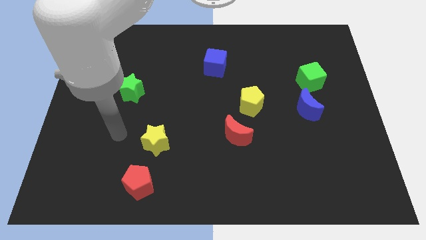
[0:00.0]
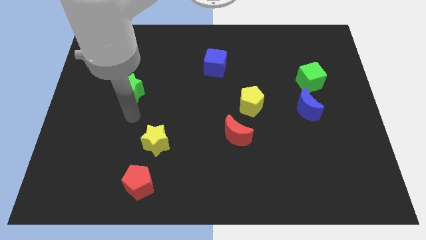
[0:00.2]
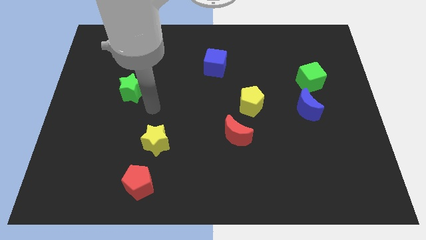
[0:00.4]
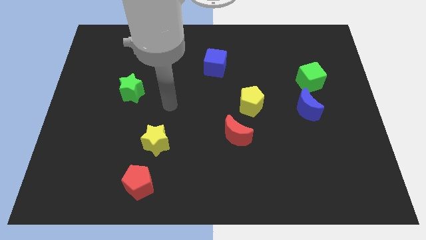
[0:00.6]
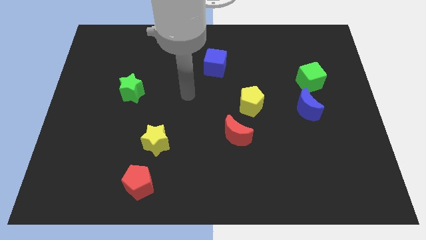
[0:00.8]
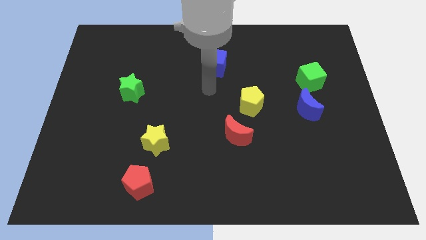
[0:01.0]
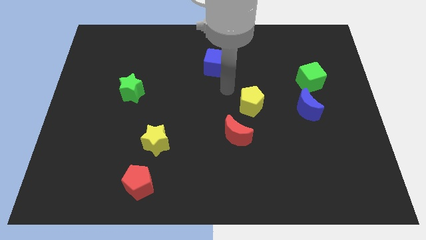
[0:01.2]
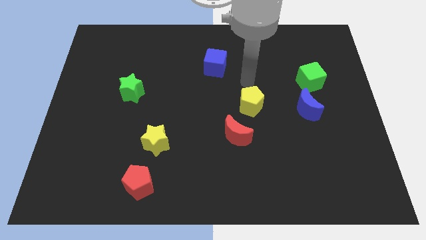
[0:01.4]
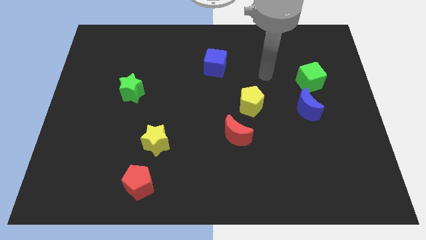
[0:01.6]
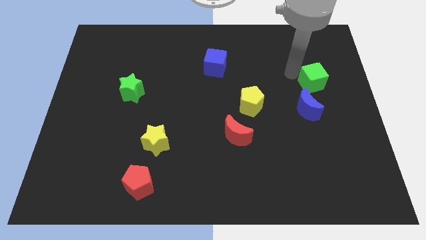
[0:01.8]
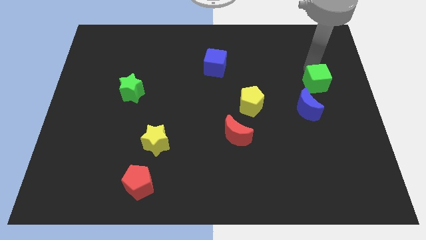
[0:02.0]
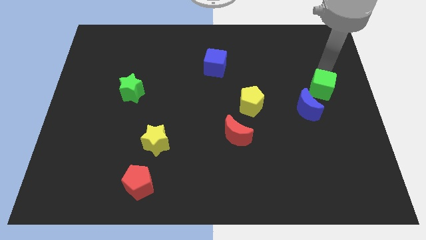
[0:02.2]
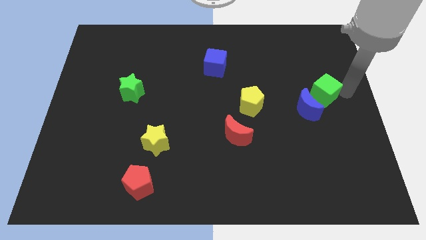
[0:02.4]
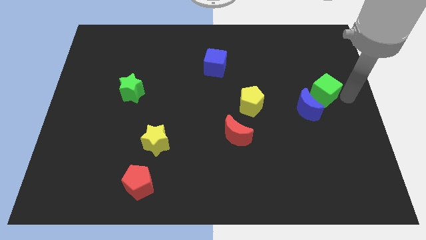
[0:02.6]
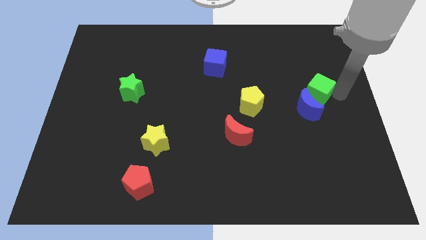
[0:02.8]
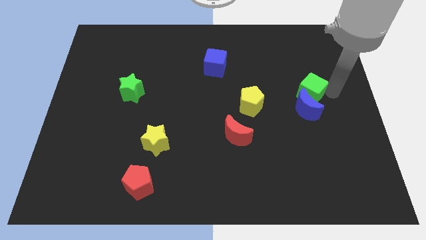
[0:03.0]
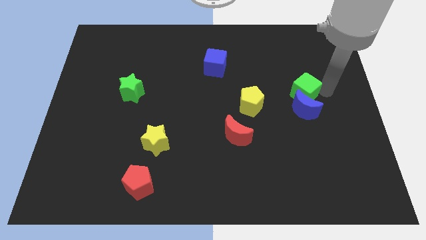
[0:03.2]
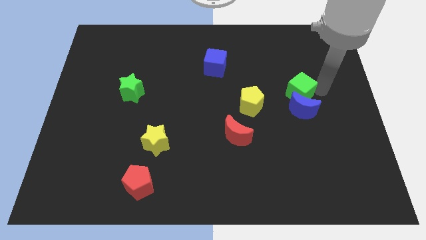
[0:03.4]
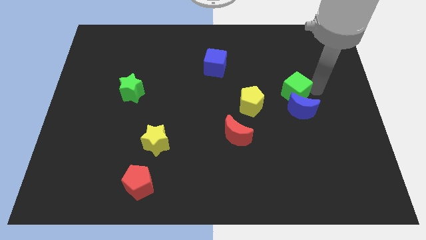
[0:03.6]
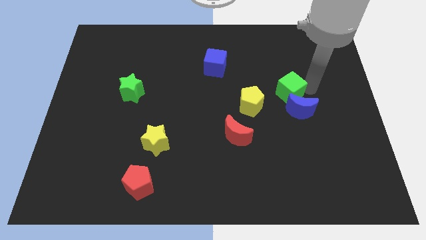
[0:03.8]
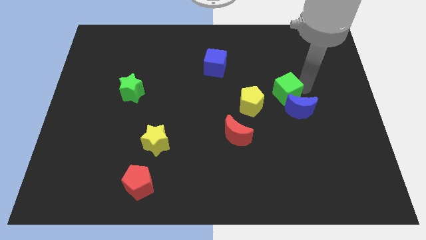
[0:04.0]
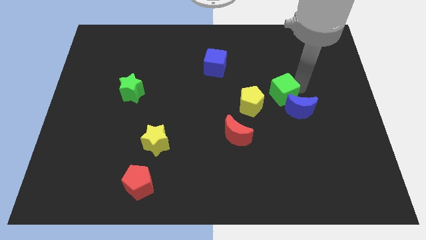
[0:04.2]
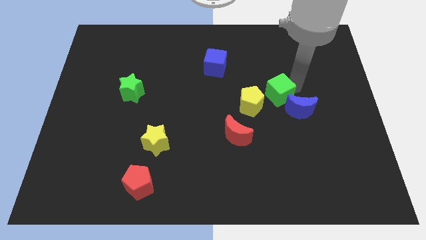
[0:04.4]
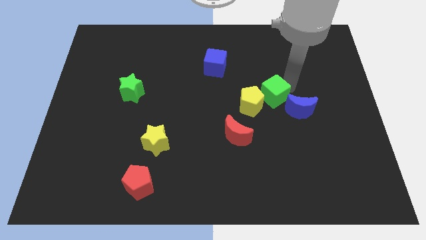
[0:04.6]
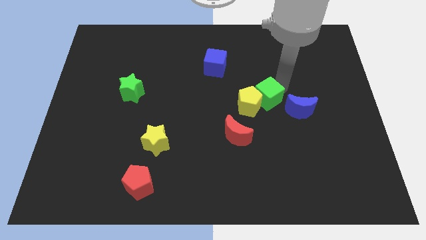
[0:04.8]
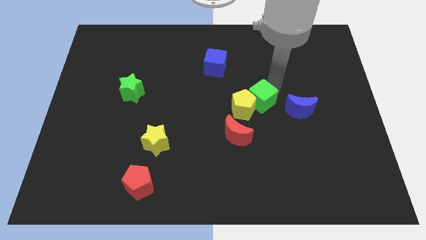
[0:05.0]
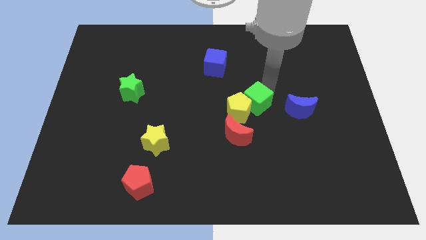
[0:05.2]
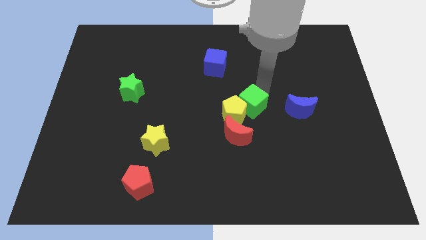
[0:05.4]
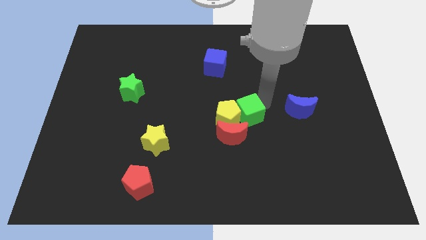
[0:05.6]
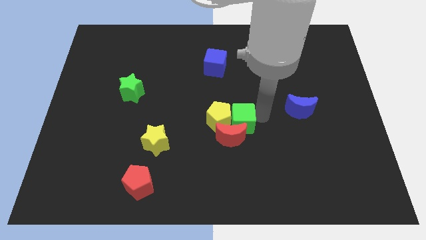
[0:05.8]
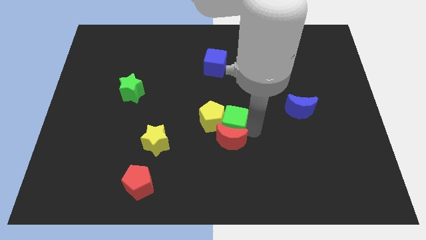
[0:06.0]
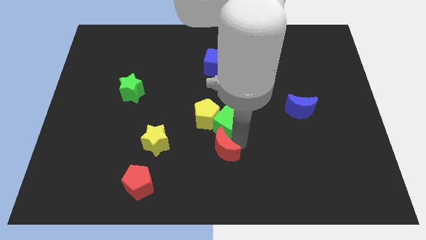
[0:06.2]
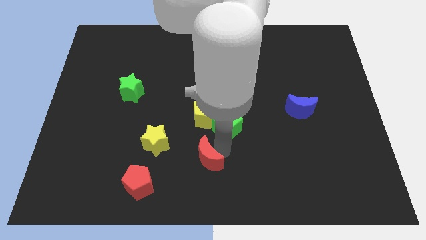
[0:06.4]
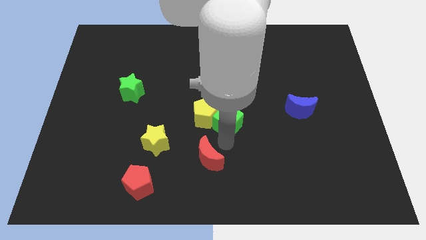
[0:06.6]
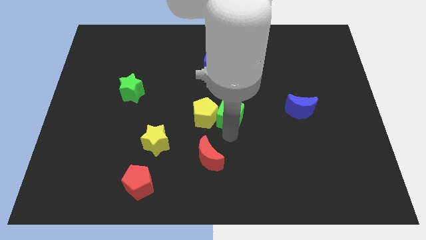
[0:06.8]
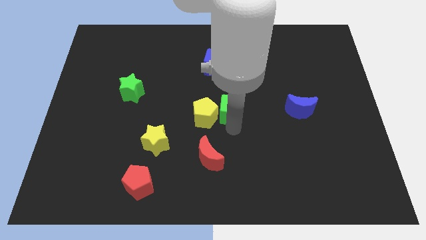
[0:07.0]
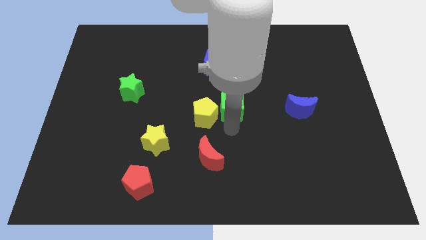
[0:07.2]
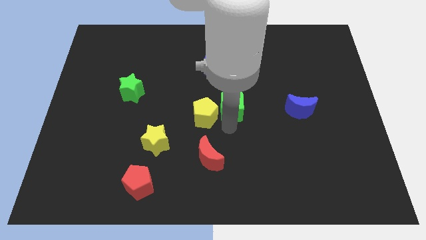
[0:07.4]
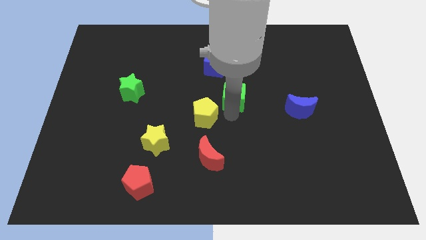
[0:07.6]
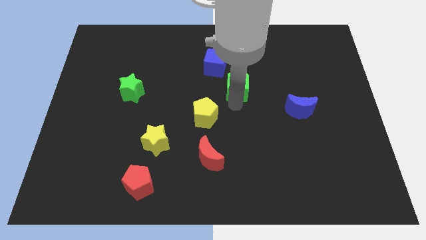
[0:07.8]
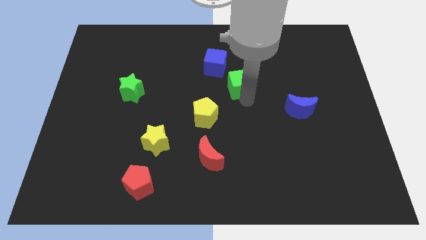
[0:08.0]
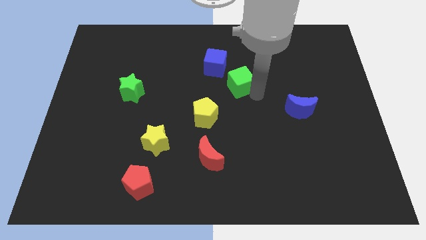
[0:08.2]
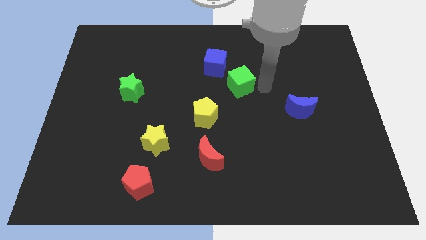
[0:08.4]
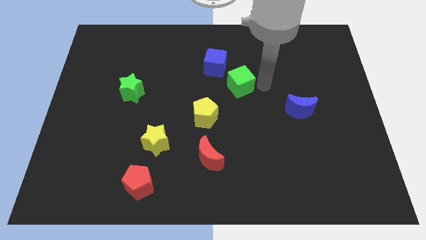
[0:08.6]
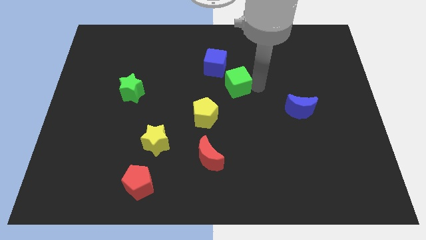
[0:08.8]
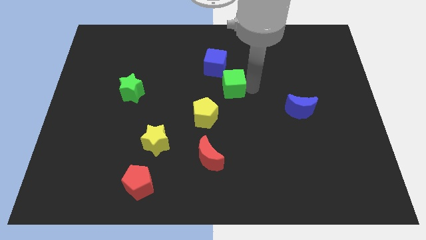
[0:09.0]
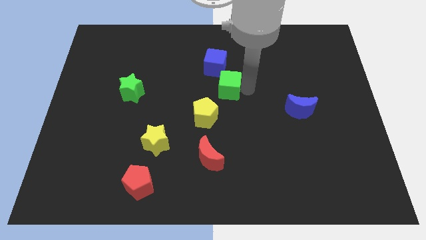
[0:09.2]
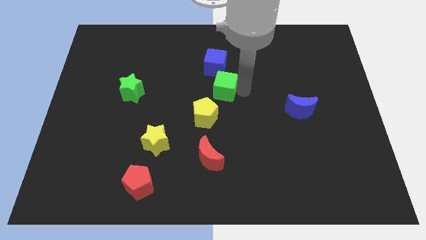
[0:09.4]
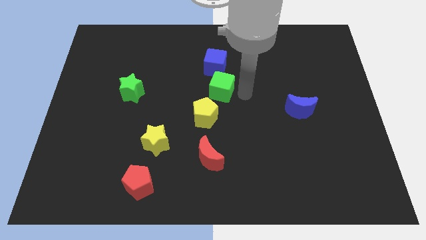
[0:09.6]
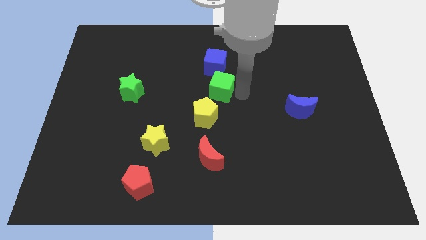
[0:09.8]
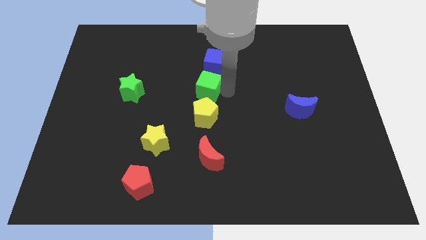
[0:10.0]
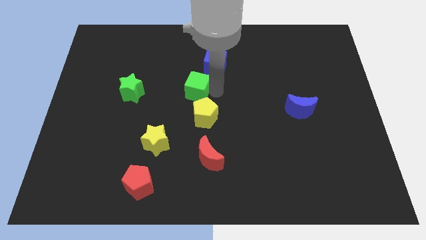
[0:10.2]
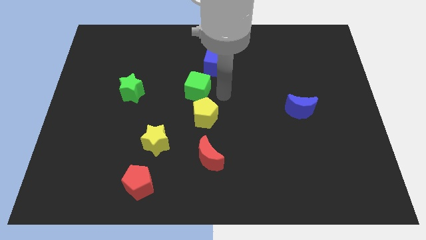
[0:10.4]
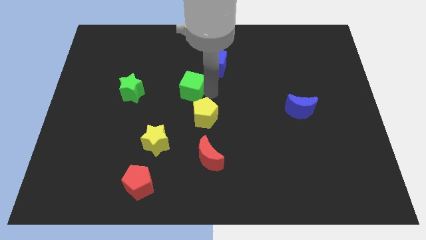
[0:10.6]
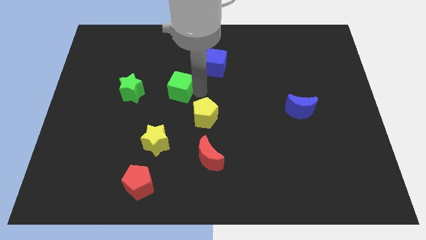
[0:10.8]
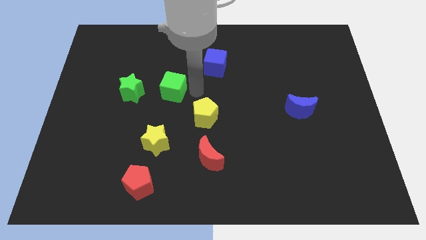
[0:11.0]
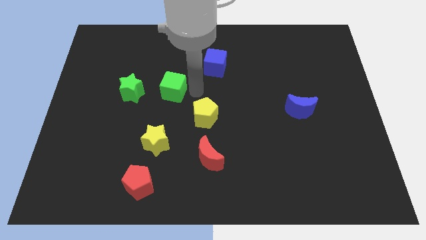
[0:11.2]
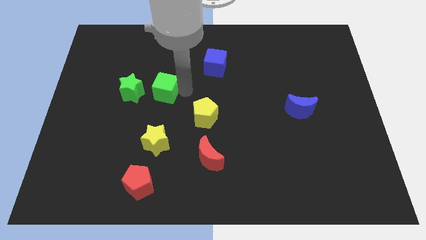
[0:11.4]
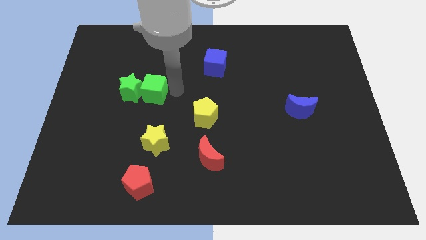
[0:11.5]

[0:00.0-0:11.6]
put the green cube close to the green star

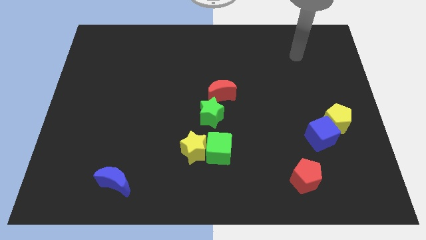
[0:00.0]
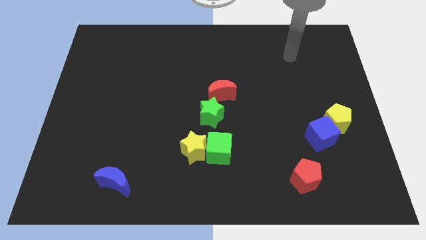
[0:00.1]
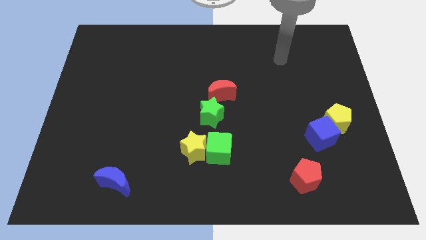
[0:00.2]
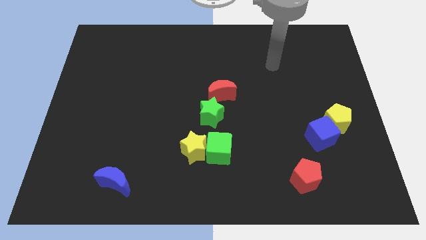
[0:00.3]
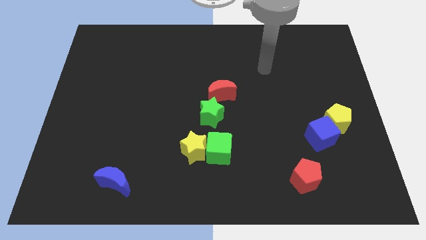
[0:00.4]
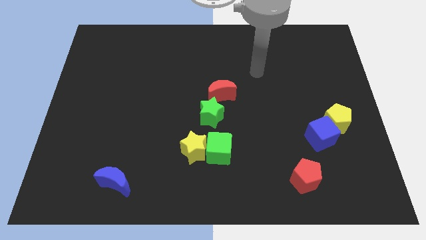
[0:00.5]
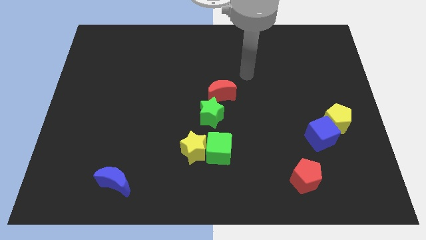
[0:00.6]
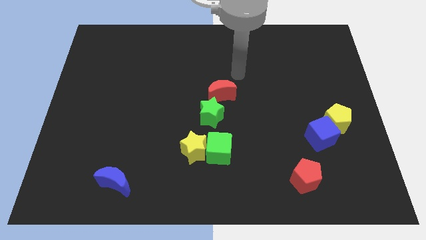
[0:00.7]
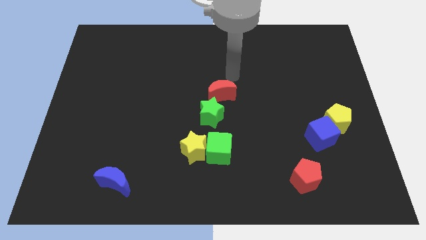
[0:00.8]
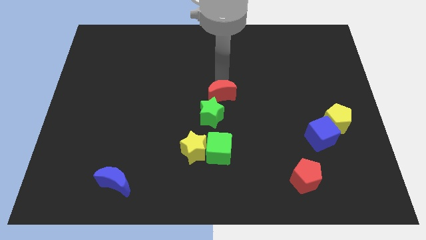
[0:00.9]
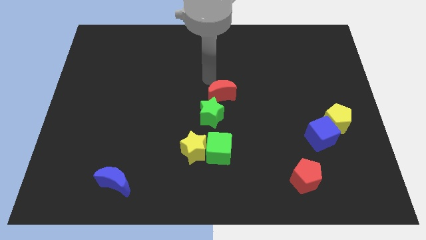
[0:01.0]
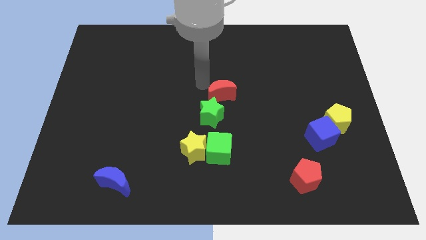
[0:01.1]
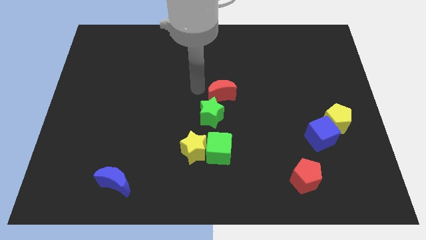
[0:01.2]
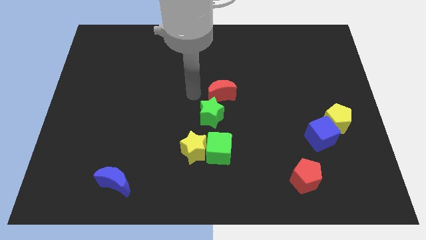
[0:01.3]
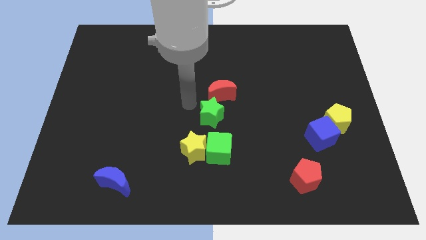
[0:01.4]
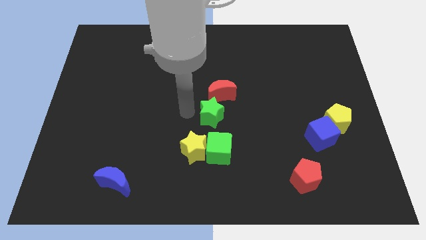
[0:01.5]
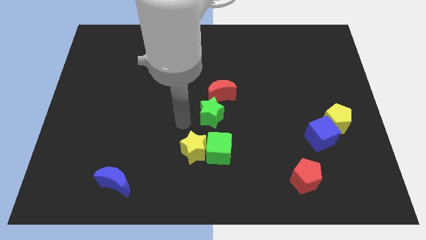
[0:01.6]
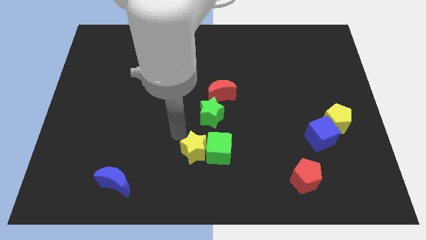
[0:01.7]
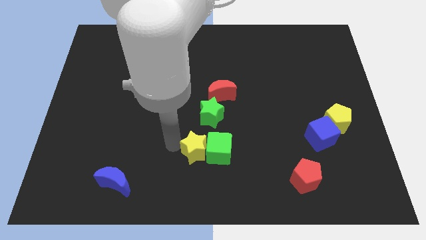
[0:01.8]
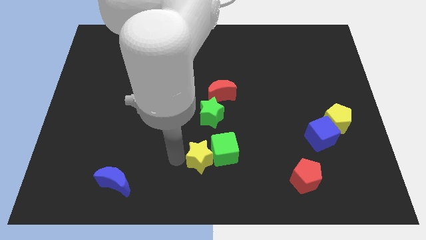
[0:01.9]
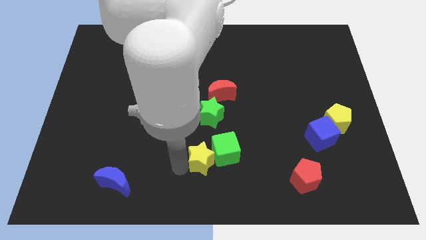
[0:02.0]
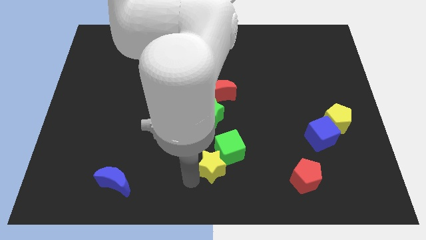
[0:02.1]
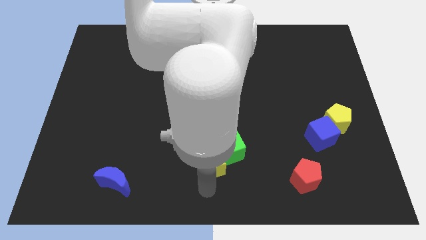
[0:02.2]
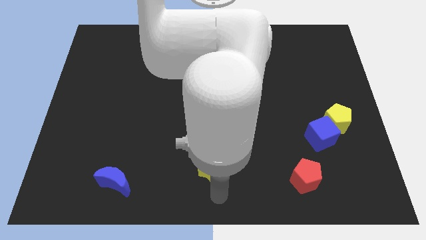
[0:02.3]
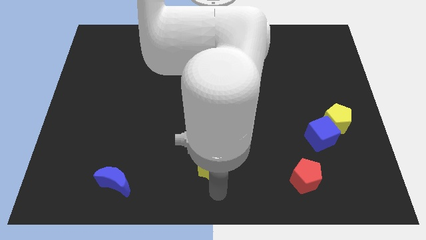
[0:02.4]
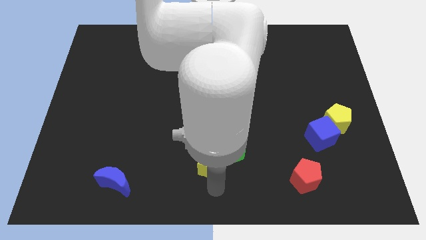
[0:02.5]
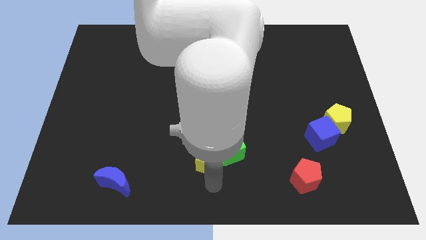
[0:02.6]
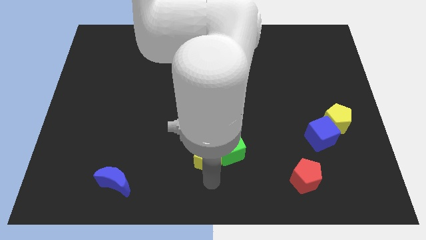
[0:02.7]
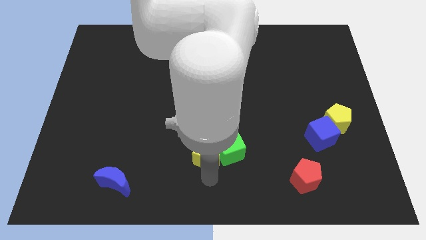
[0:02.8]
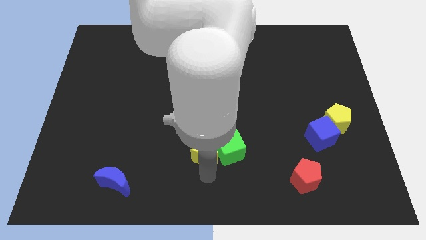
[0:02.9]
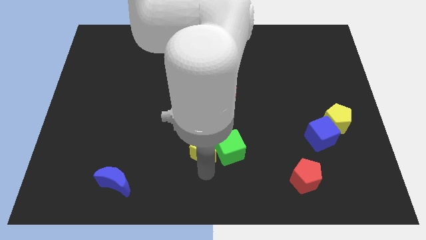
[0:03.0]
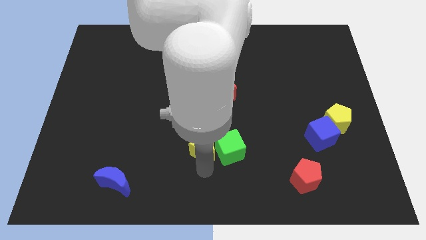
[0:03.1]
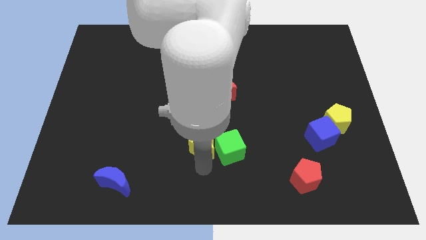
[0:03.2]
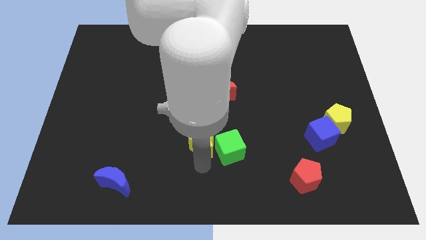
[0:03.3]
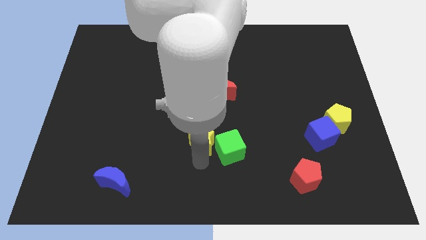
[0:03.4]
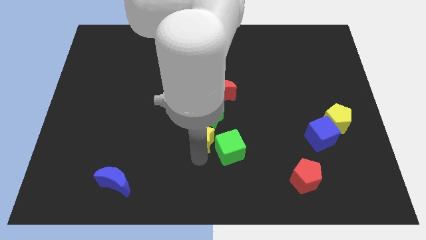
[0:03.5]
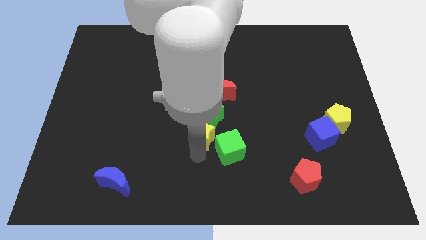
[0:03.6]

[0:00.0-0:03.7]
move the yellow star towards the green star
